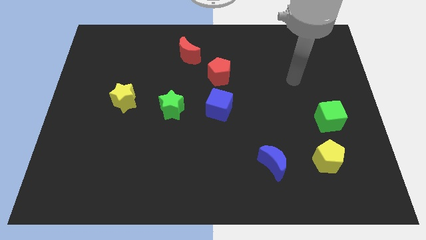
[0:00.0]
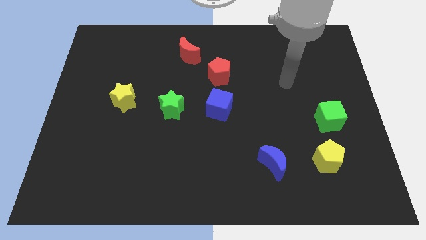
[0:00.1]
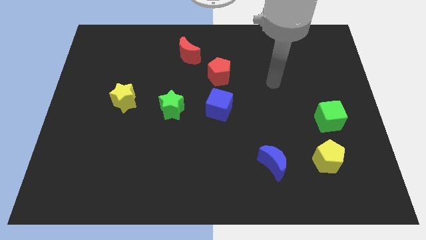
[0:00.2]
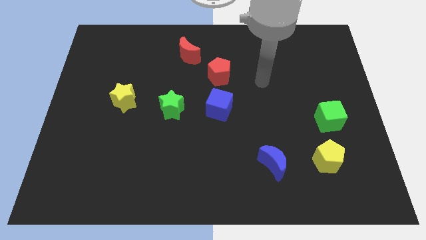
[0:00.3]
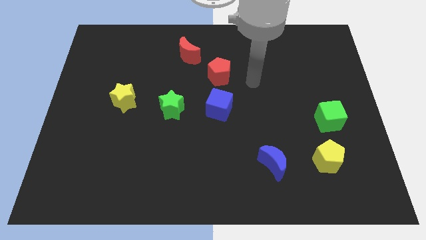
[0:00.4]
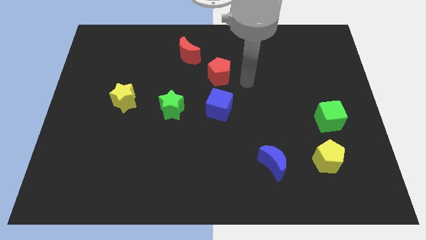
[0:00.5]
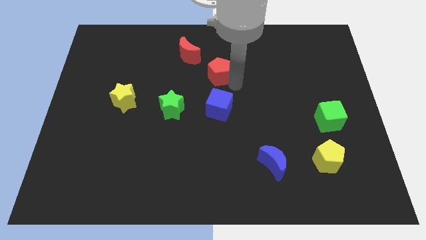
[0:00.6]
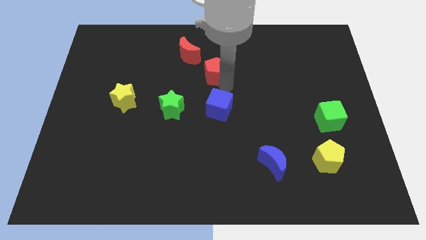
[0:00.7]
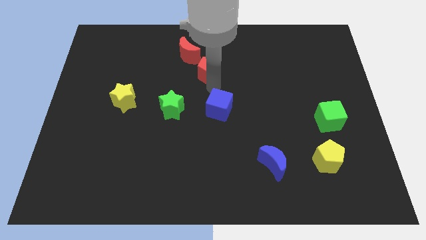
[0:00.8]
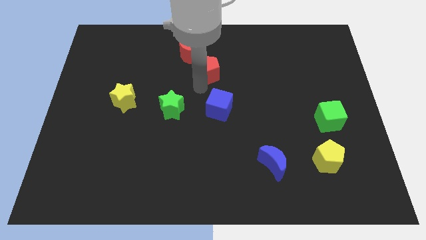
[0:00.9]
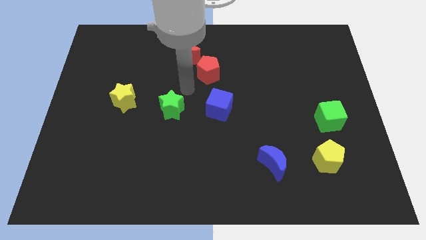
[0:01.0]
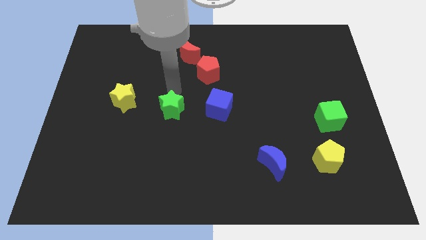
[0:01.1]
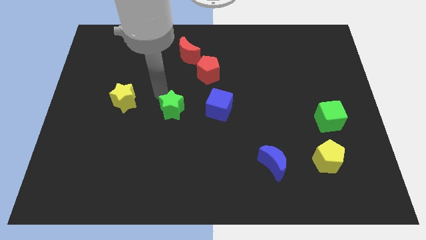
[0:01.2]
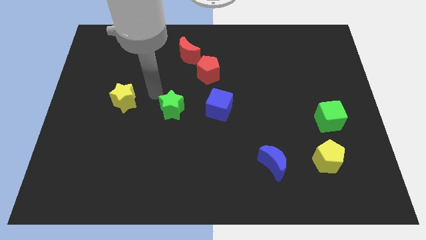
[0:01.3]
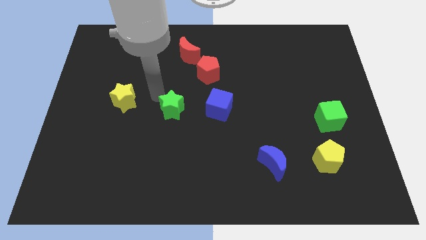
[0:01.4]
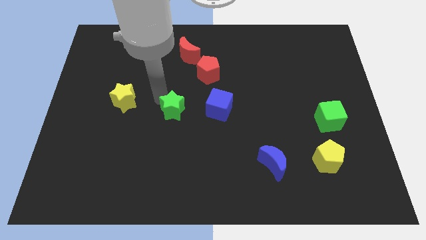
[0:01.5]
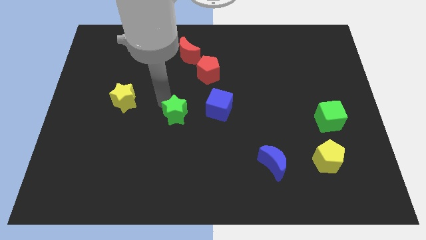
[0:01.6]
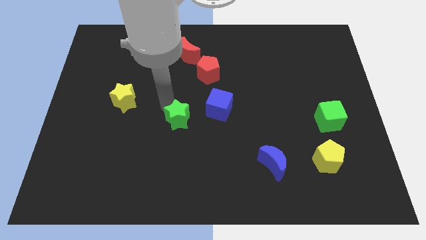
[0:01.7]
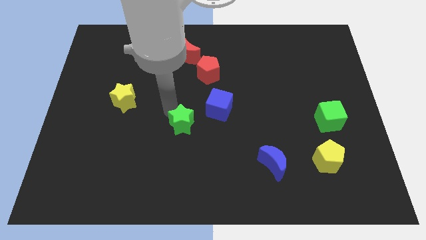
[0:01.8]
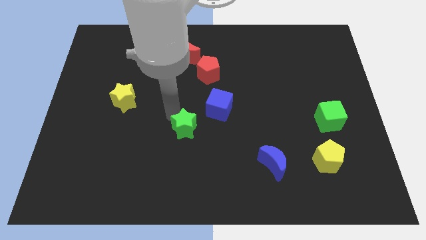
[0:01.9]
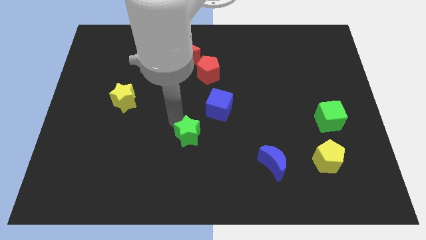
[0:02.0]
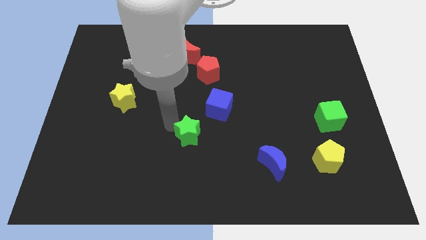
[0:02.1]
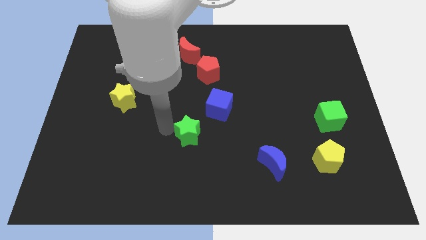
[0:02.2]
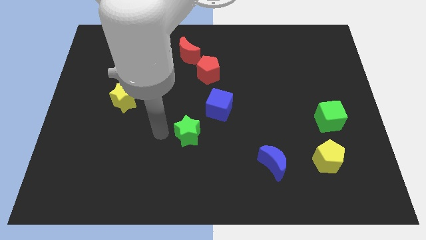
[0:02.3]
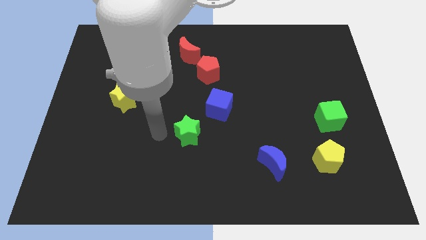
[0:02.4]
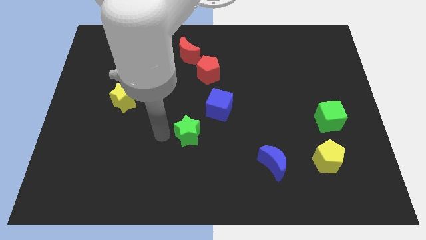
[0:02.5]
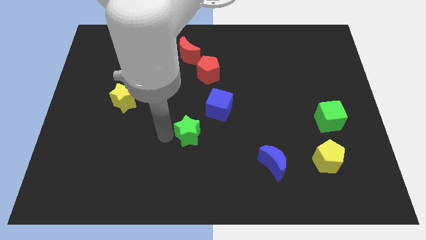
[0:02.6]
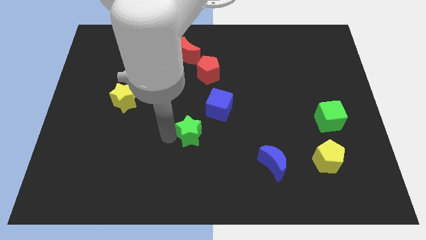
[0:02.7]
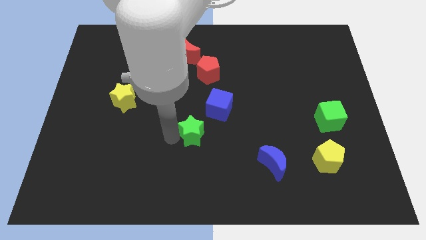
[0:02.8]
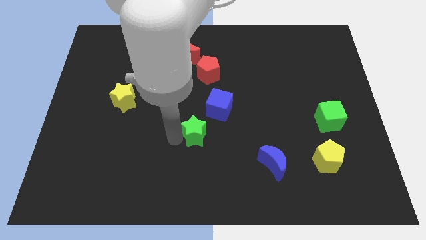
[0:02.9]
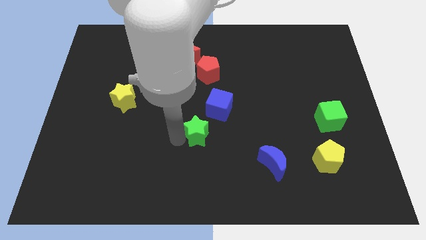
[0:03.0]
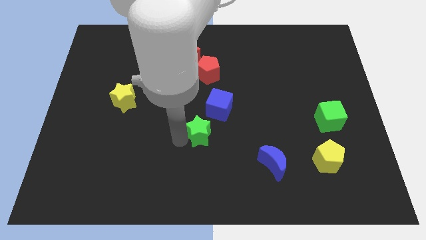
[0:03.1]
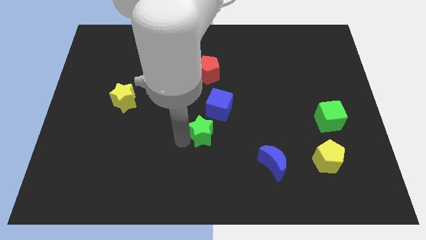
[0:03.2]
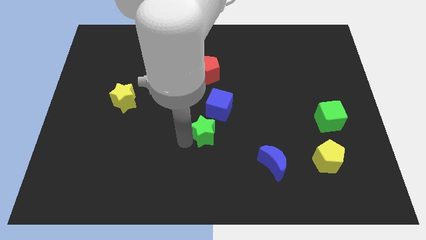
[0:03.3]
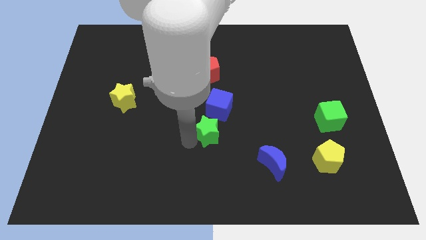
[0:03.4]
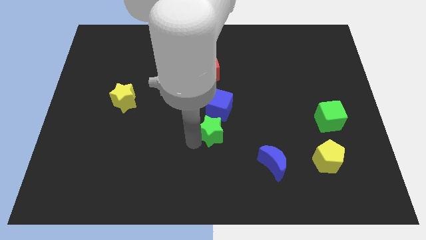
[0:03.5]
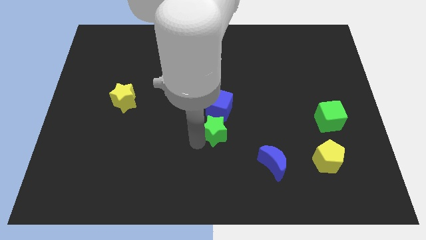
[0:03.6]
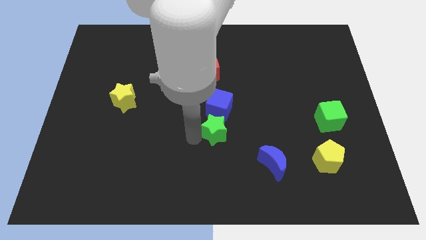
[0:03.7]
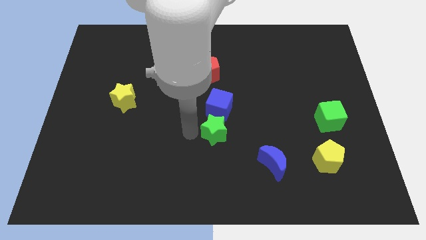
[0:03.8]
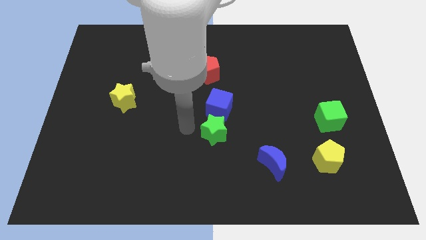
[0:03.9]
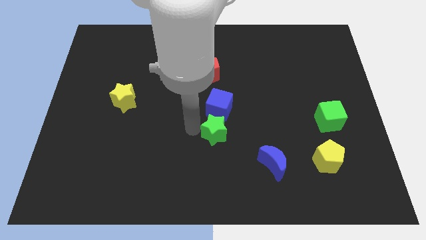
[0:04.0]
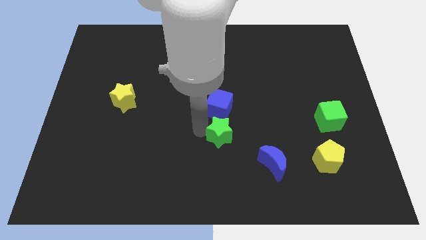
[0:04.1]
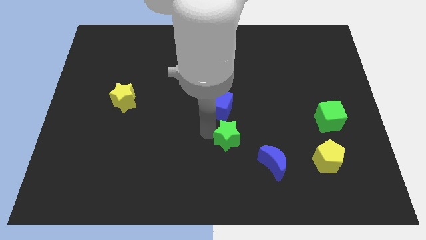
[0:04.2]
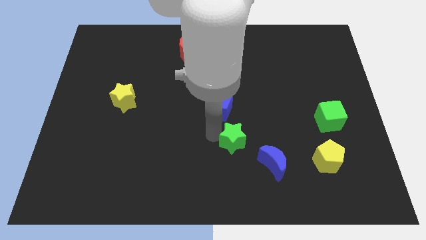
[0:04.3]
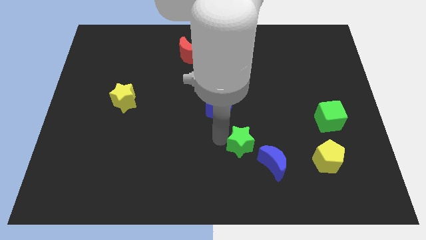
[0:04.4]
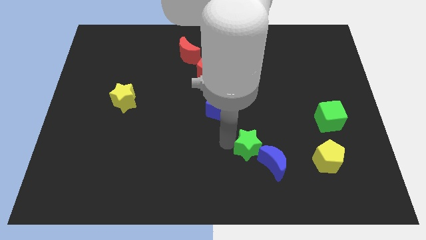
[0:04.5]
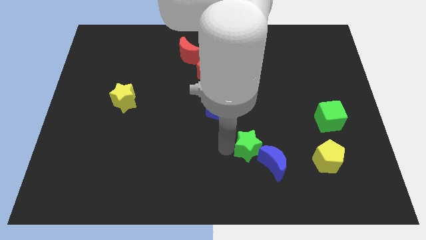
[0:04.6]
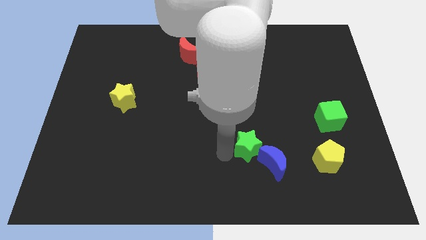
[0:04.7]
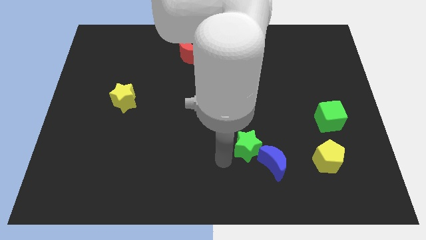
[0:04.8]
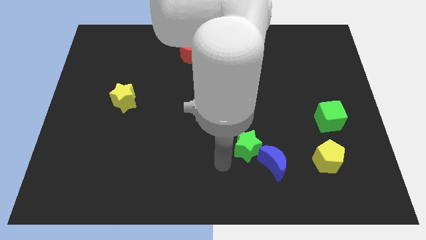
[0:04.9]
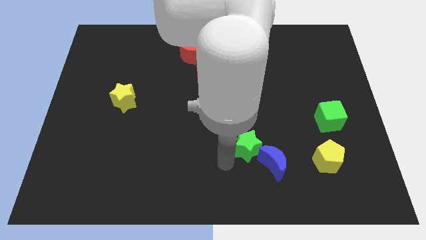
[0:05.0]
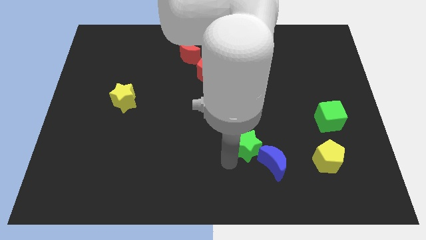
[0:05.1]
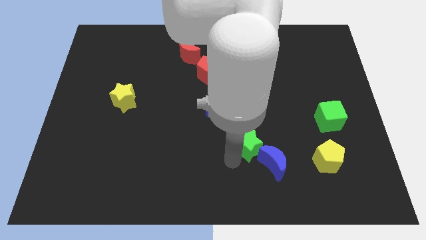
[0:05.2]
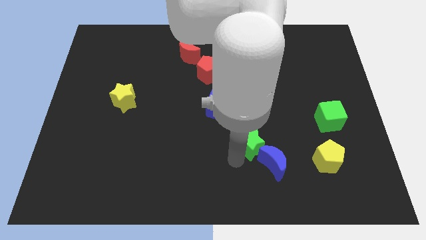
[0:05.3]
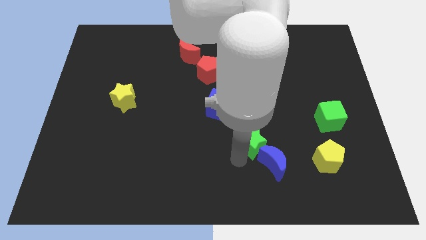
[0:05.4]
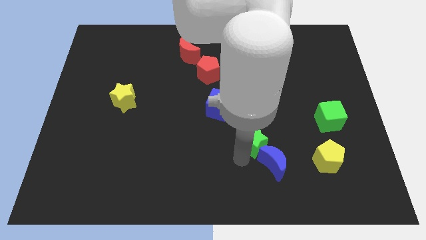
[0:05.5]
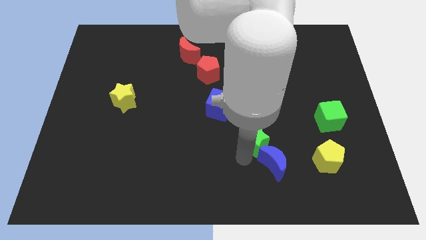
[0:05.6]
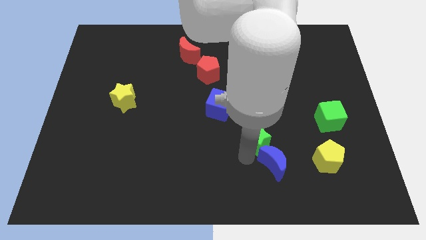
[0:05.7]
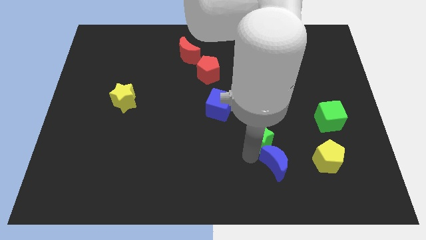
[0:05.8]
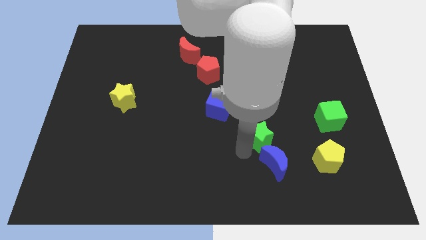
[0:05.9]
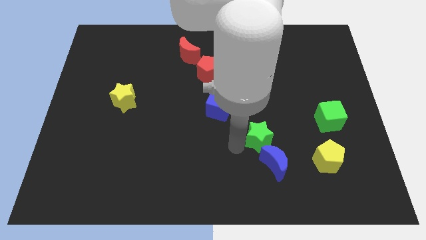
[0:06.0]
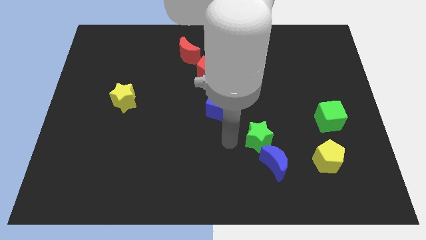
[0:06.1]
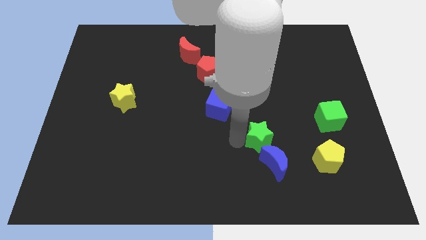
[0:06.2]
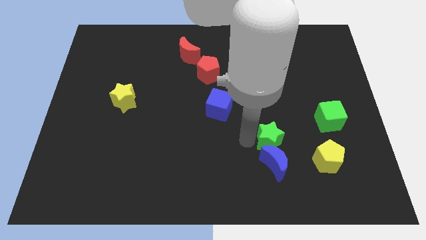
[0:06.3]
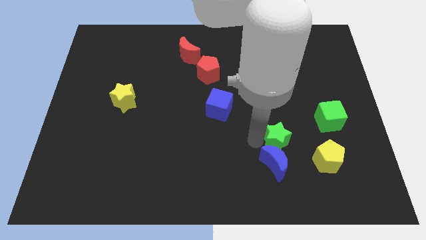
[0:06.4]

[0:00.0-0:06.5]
slide the green star to the top left of the yellow pentagon
